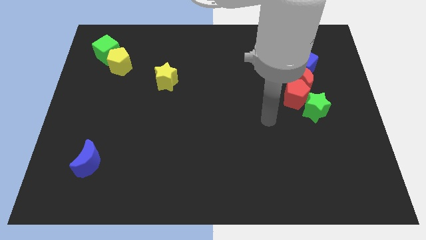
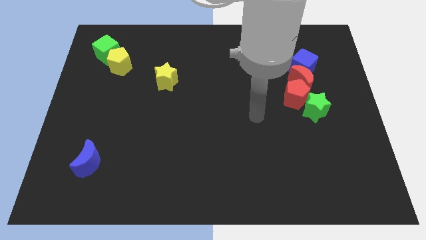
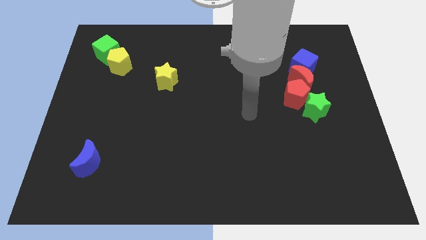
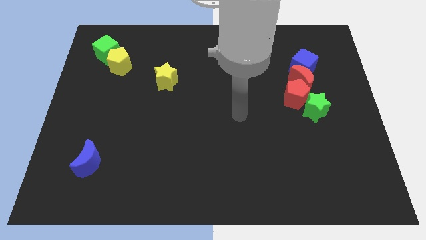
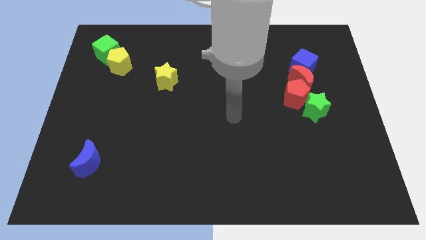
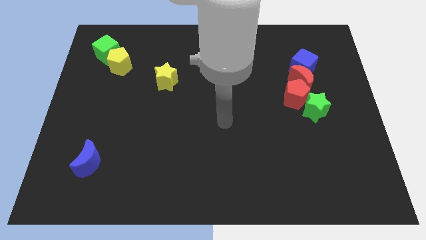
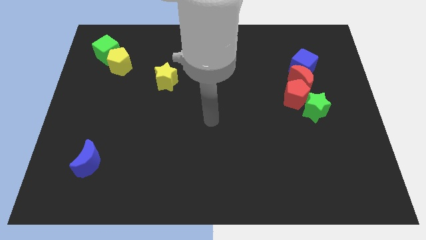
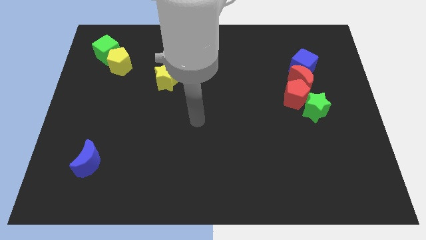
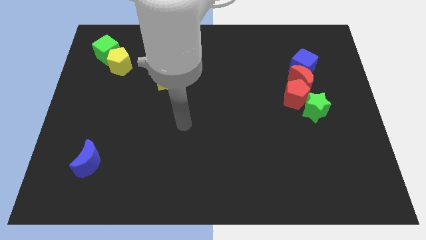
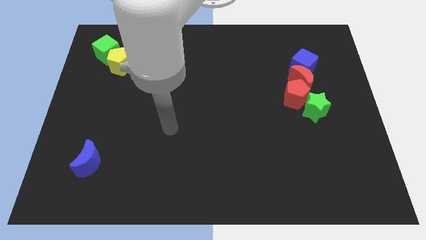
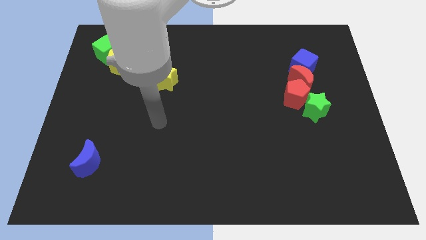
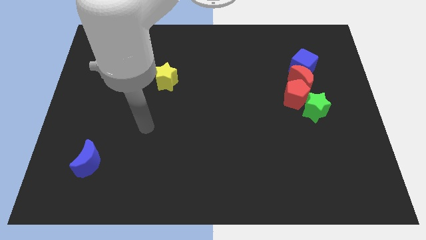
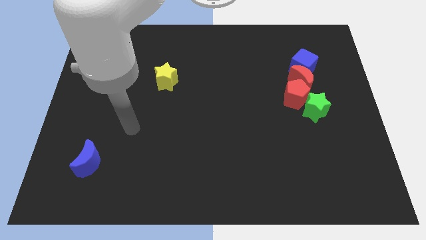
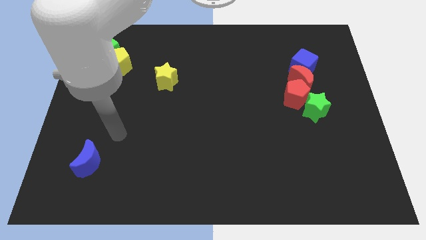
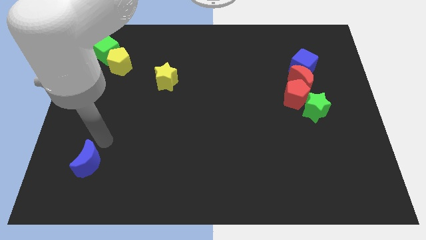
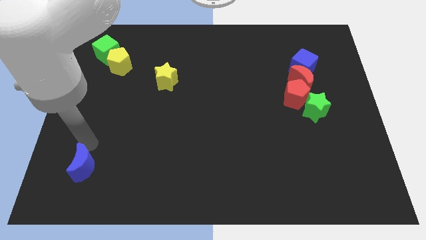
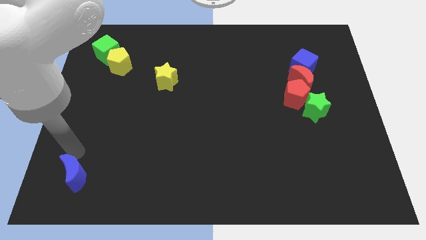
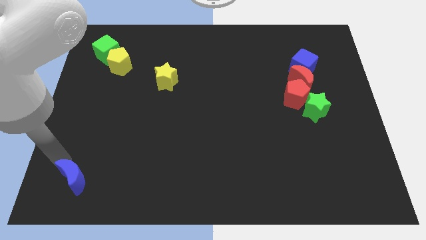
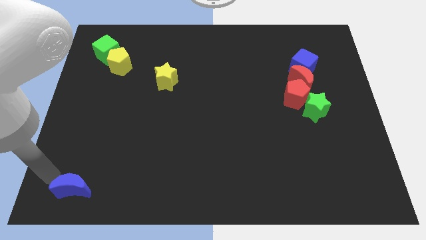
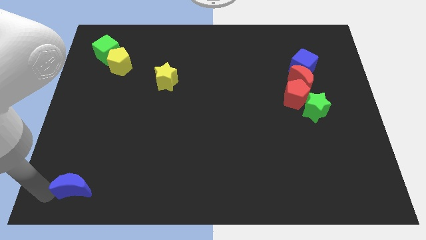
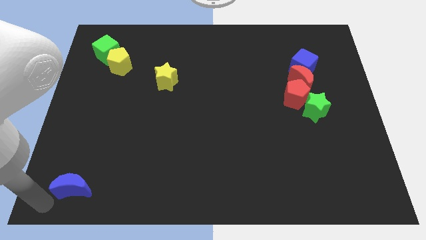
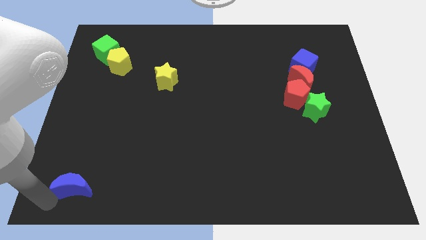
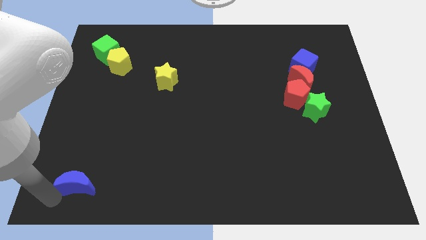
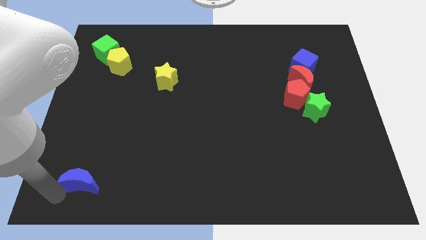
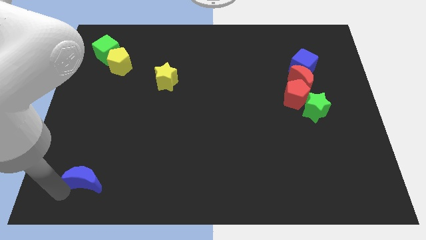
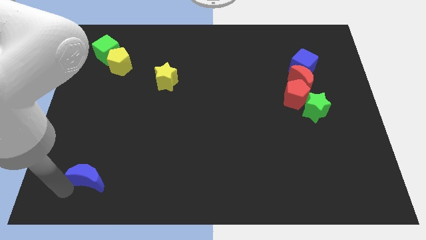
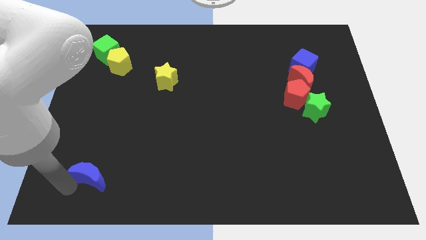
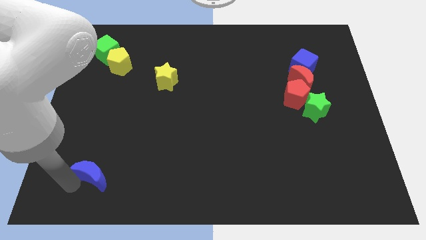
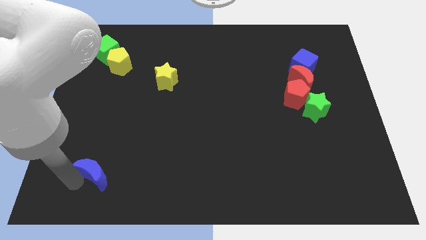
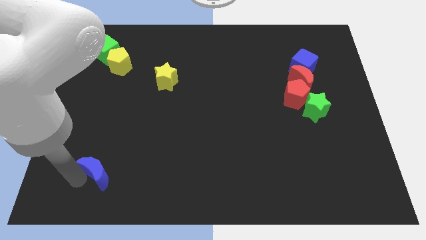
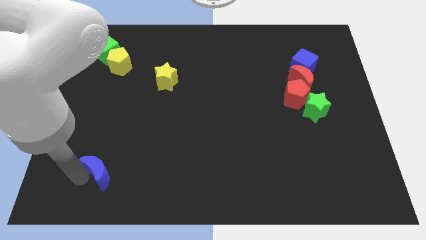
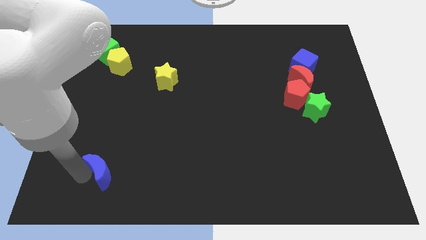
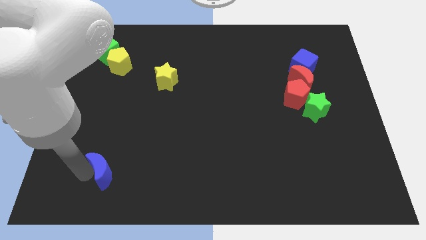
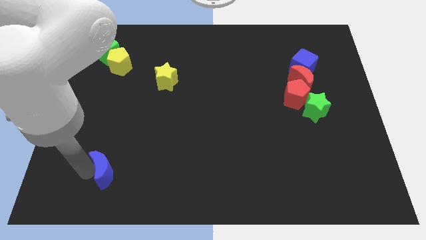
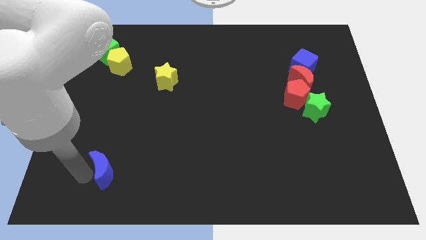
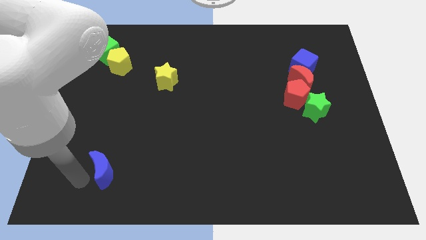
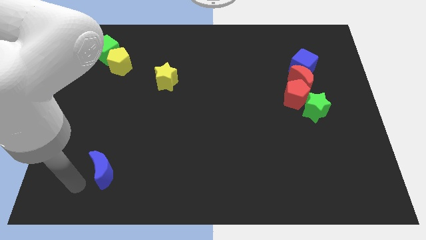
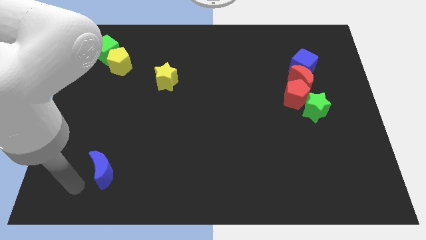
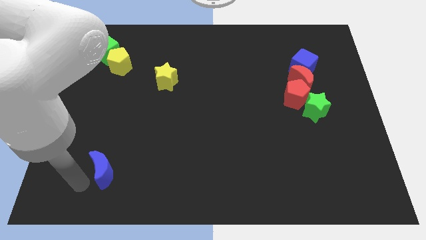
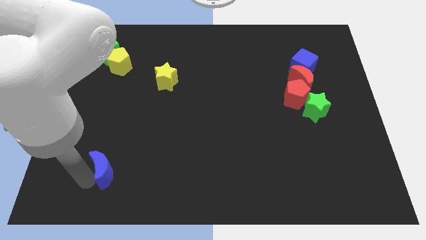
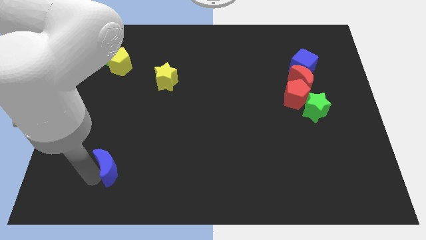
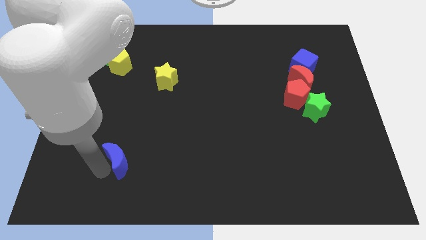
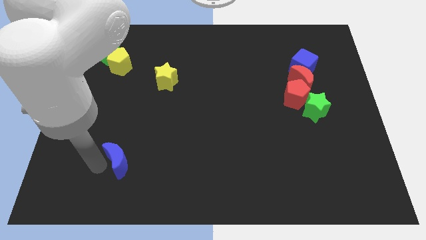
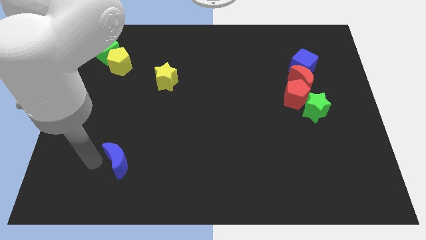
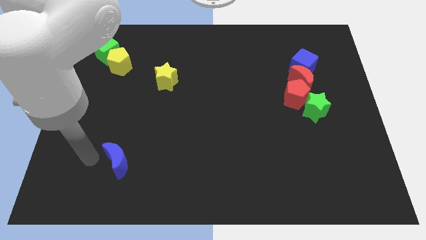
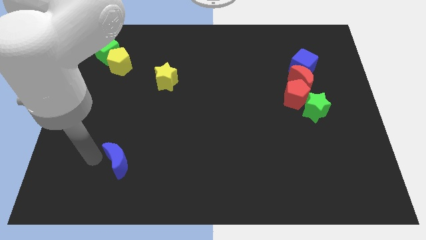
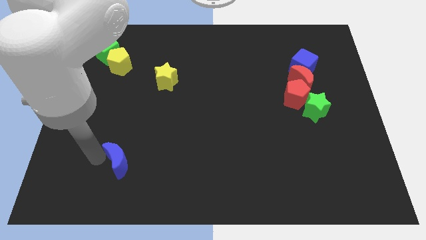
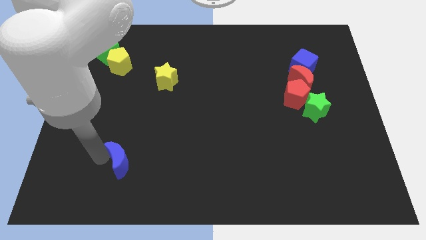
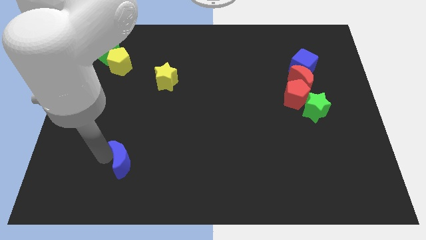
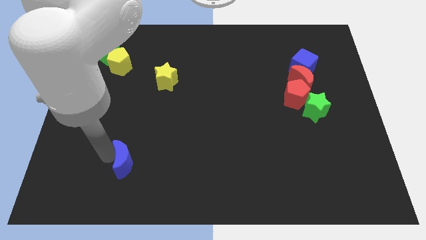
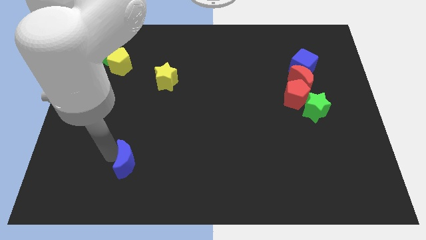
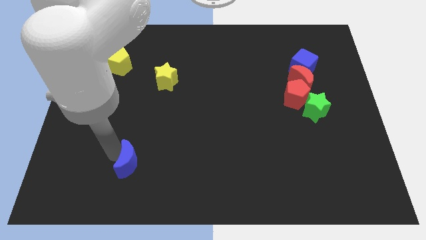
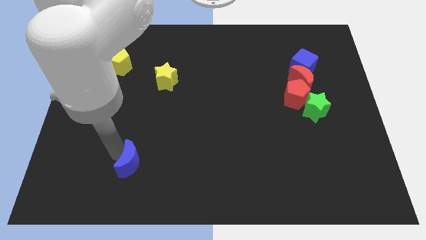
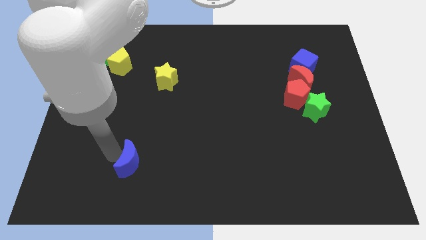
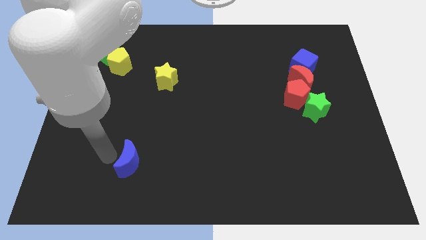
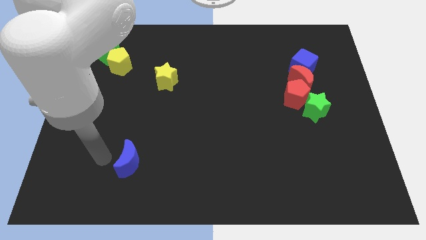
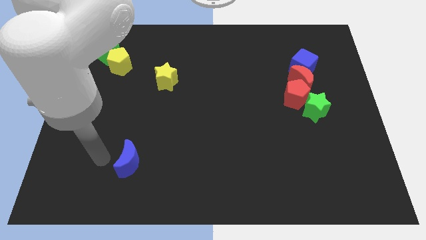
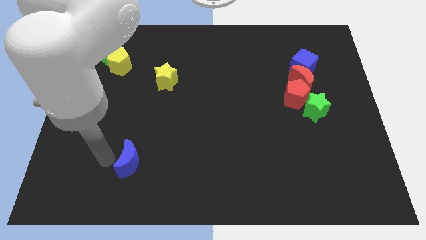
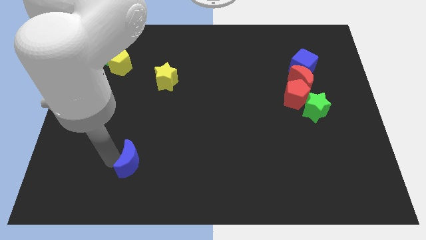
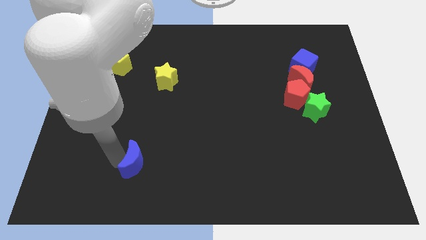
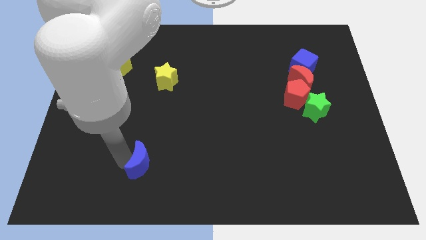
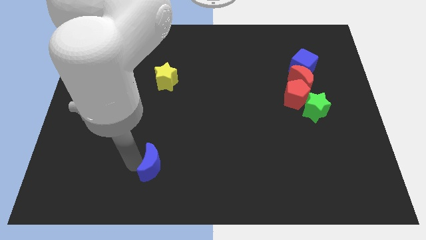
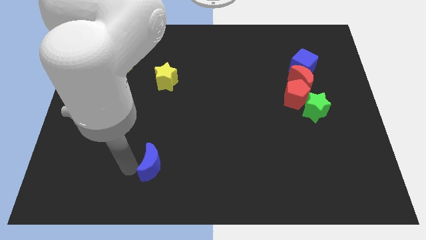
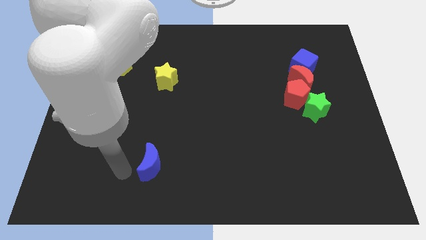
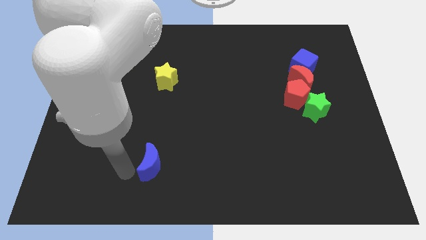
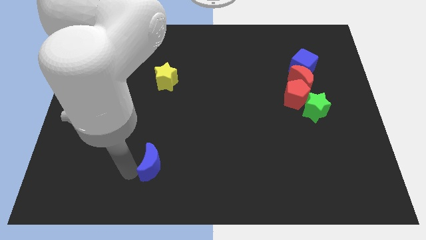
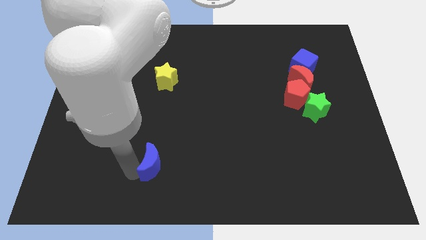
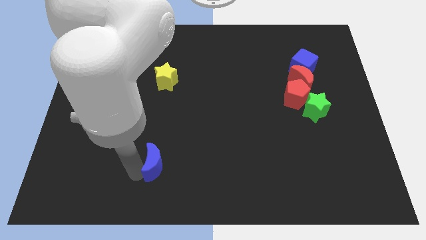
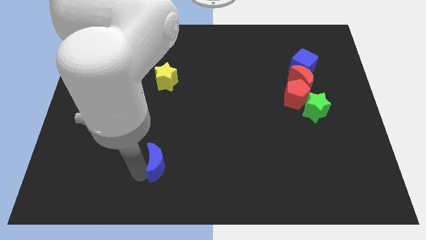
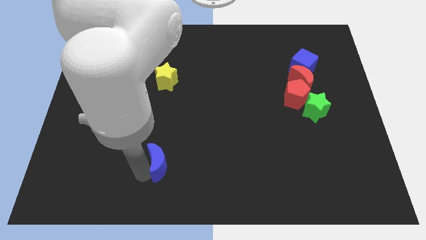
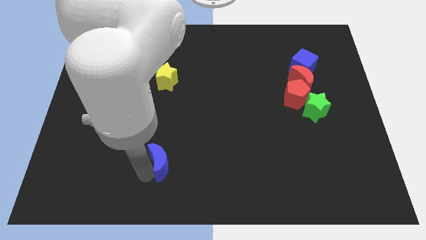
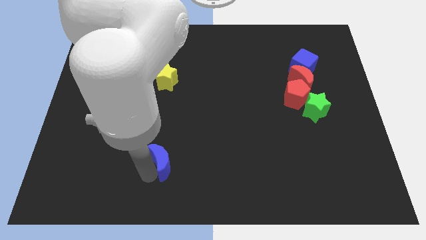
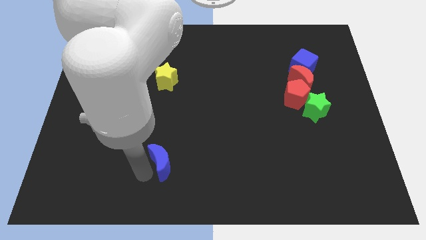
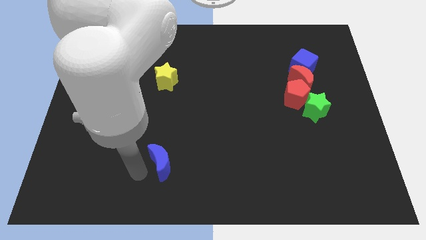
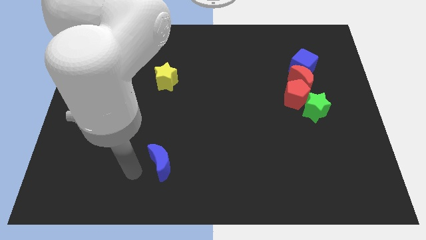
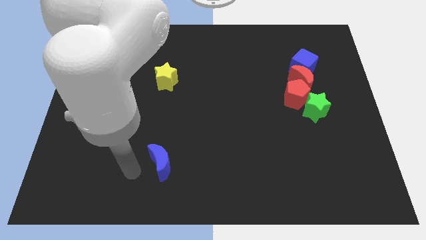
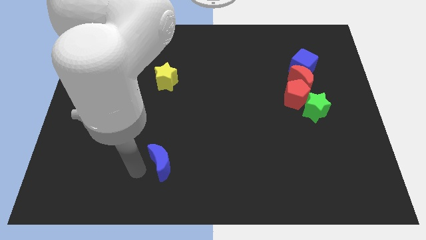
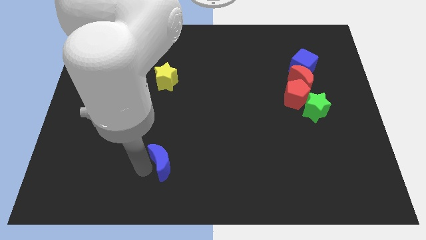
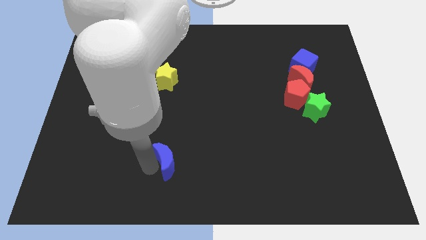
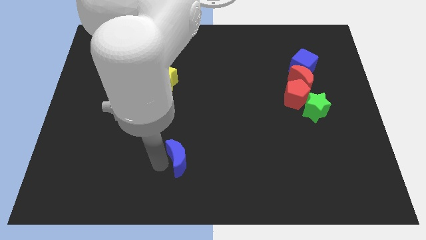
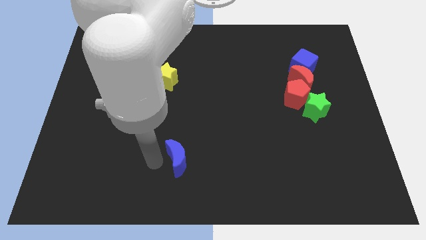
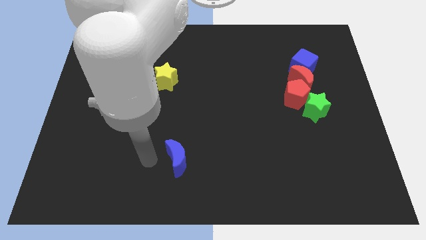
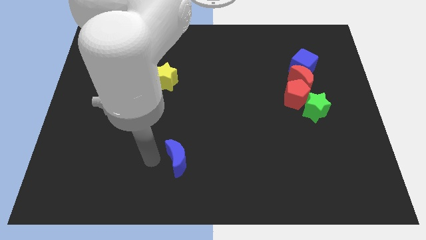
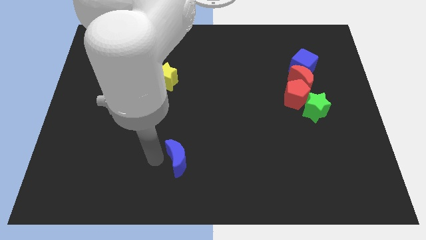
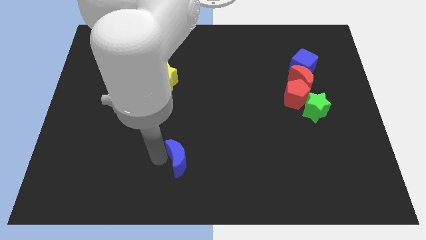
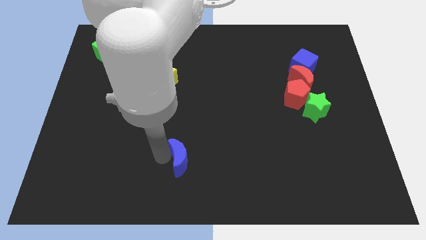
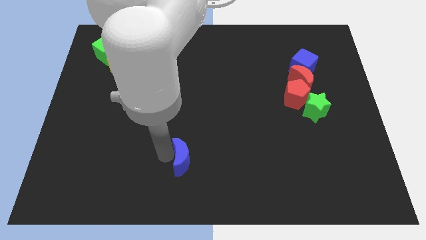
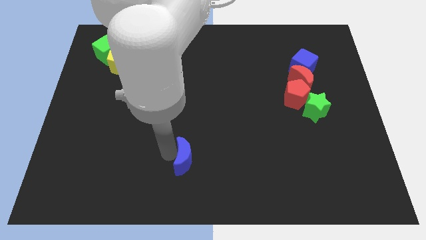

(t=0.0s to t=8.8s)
slide the blue moon right
